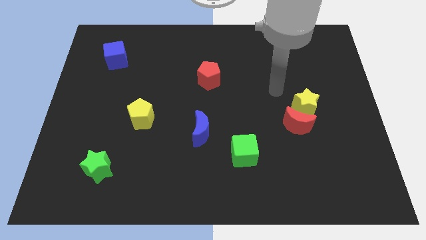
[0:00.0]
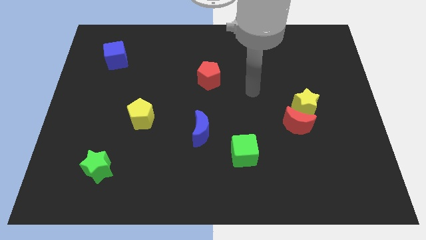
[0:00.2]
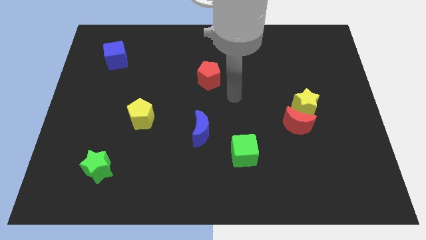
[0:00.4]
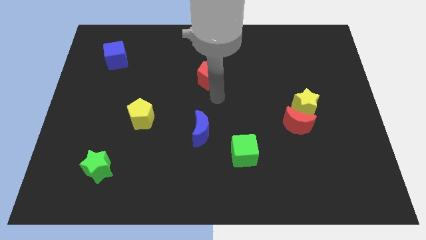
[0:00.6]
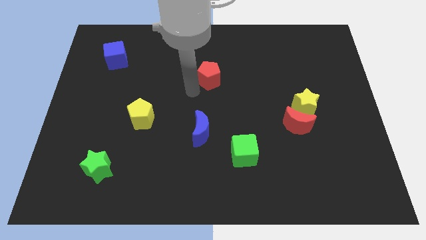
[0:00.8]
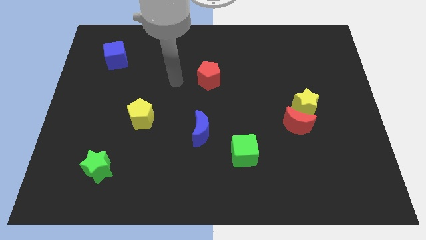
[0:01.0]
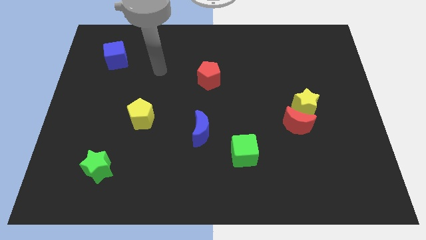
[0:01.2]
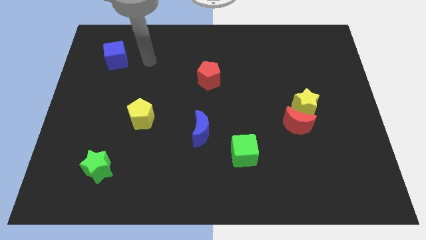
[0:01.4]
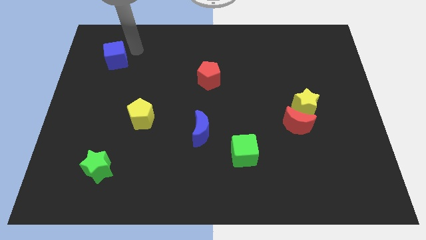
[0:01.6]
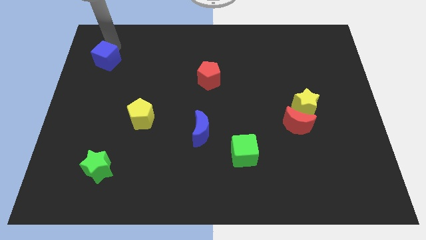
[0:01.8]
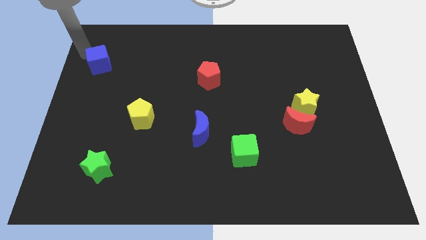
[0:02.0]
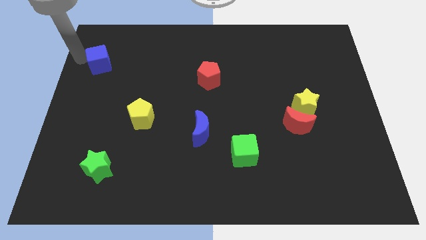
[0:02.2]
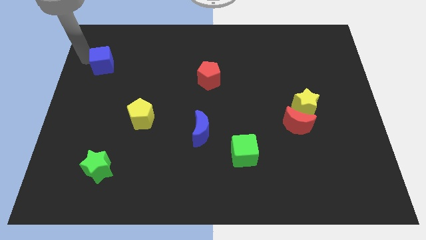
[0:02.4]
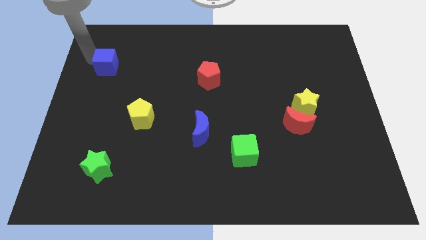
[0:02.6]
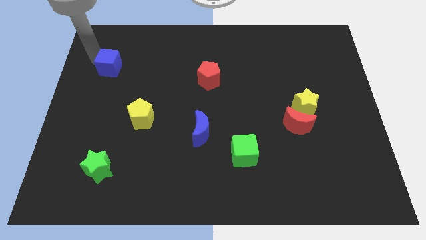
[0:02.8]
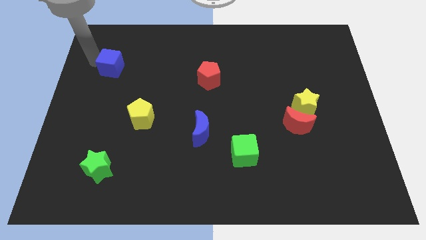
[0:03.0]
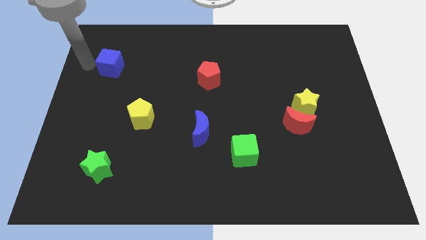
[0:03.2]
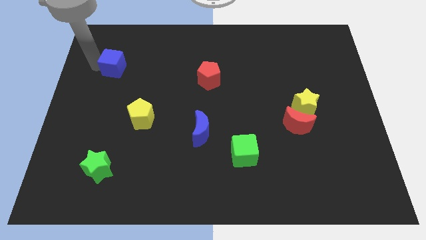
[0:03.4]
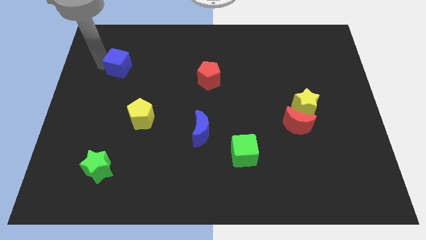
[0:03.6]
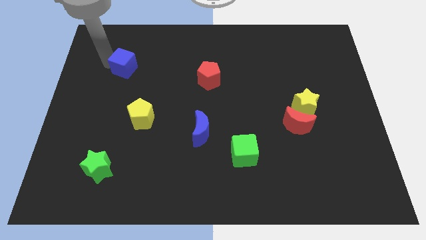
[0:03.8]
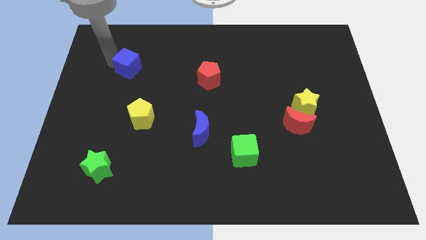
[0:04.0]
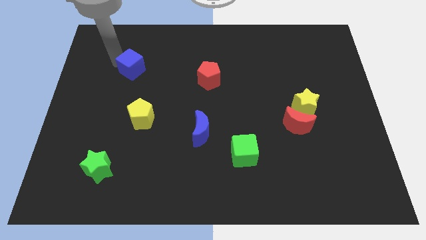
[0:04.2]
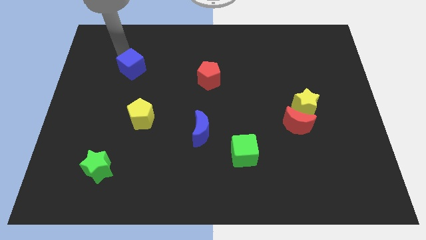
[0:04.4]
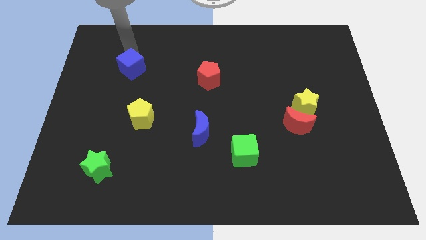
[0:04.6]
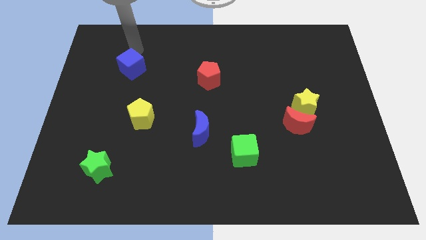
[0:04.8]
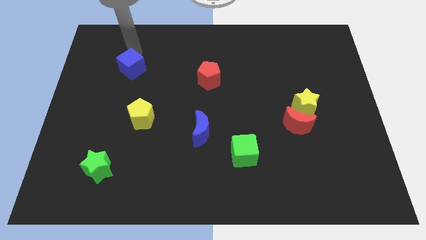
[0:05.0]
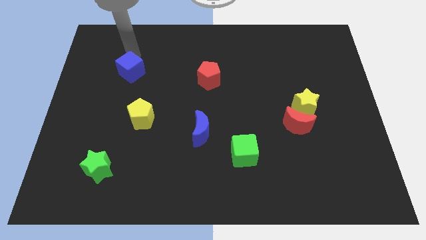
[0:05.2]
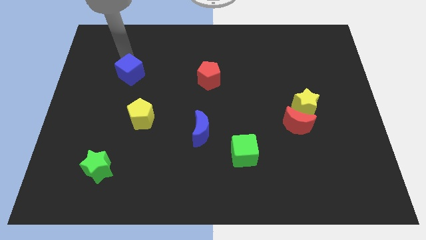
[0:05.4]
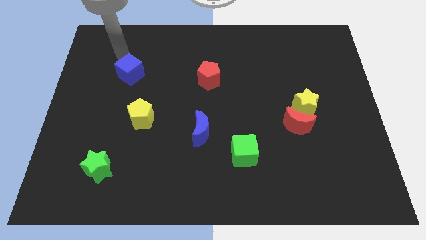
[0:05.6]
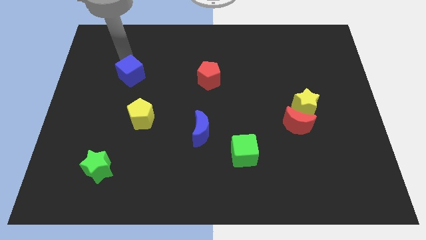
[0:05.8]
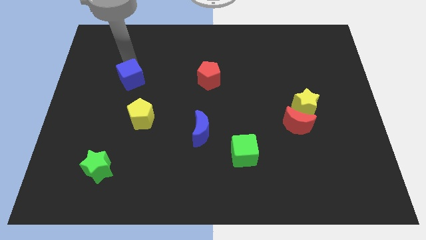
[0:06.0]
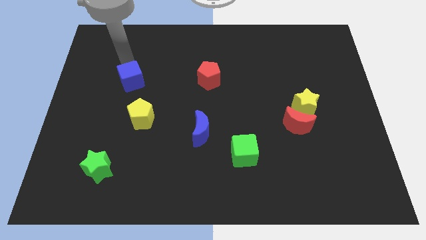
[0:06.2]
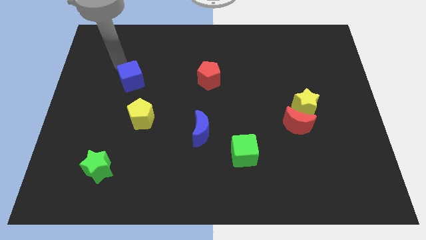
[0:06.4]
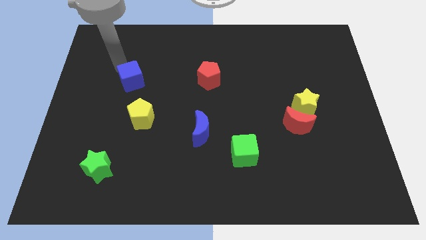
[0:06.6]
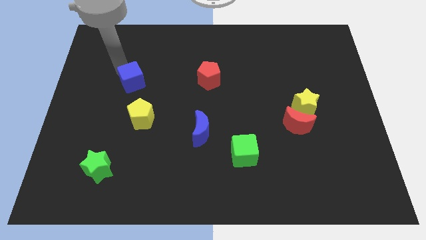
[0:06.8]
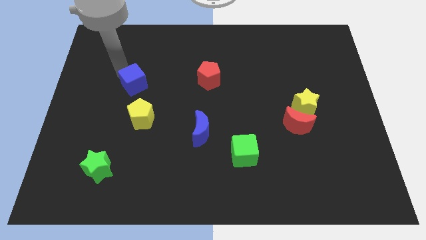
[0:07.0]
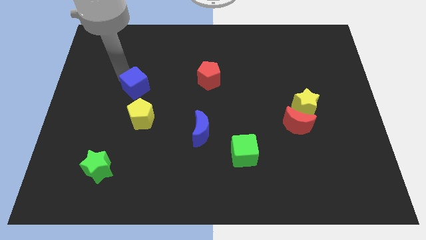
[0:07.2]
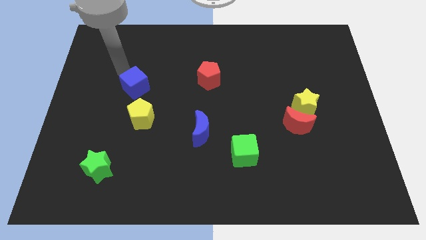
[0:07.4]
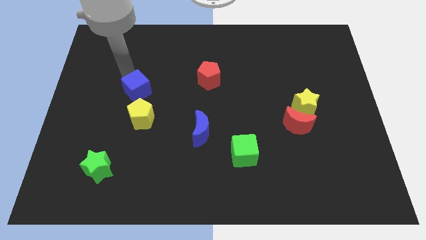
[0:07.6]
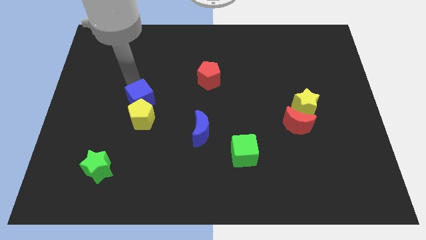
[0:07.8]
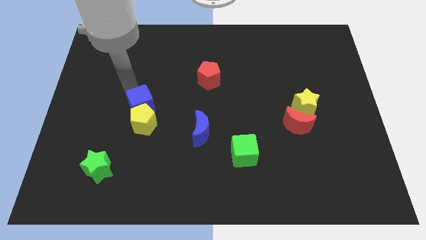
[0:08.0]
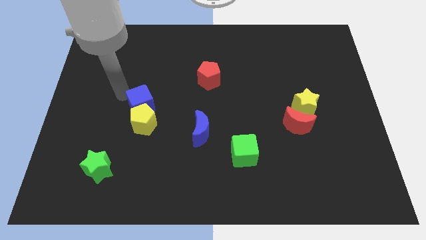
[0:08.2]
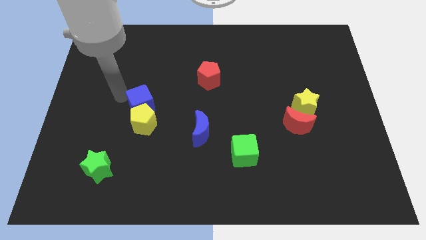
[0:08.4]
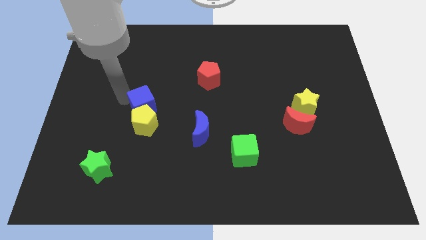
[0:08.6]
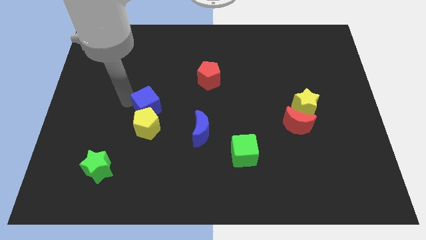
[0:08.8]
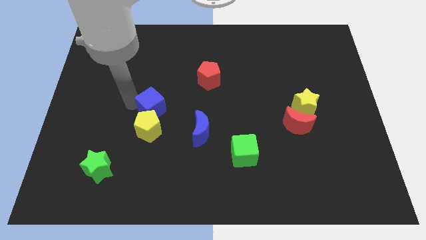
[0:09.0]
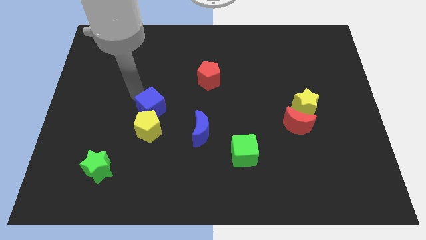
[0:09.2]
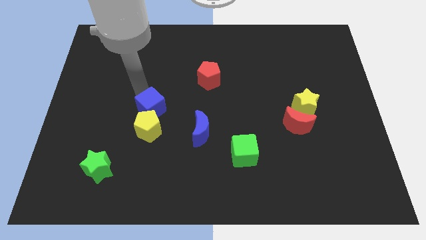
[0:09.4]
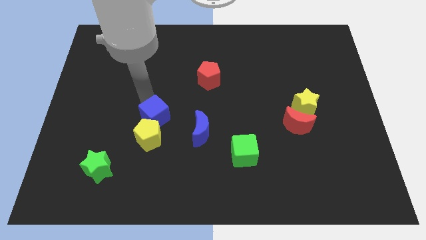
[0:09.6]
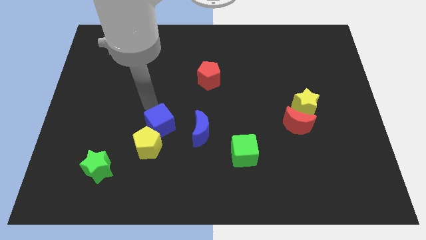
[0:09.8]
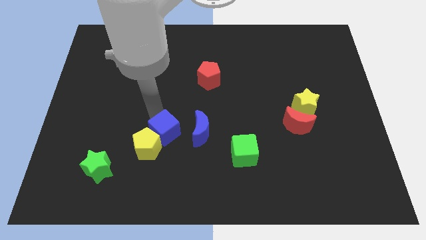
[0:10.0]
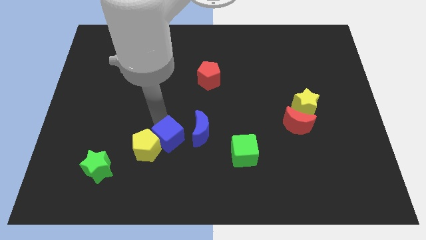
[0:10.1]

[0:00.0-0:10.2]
push the blue cube to the bottom left side of the blue moon

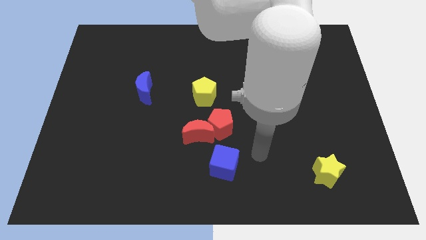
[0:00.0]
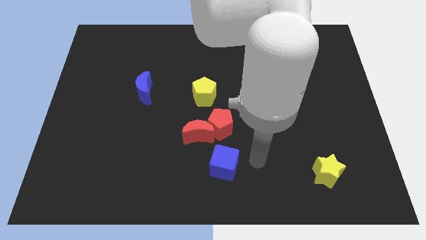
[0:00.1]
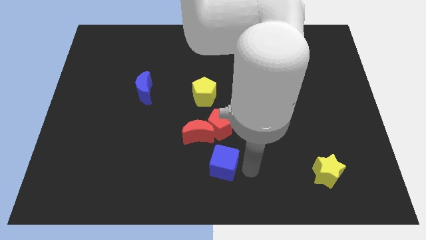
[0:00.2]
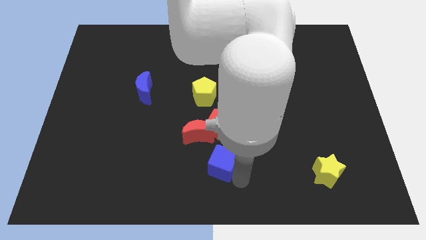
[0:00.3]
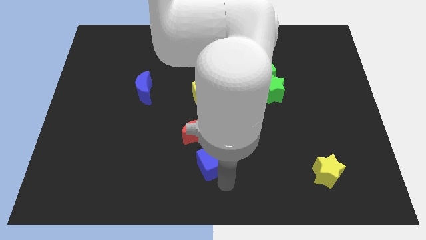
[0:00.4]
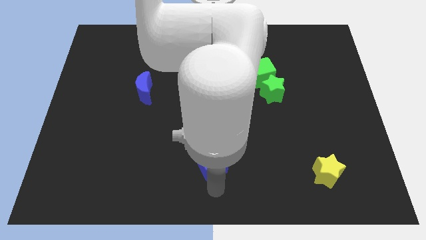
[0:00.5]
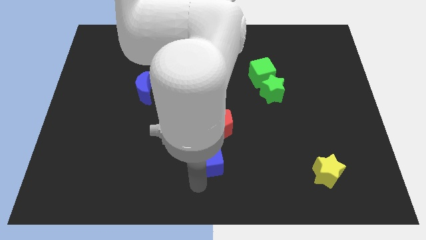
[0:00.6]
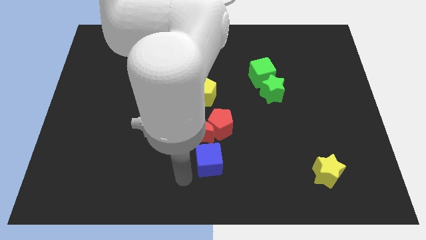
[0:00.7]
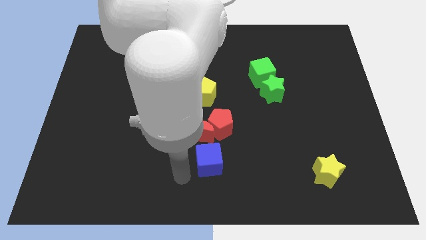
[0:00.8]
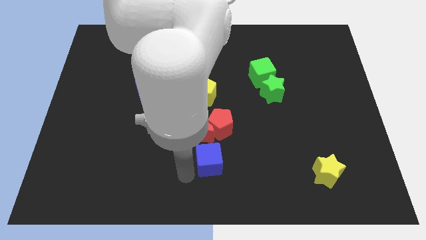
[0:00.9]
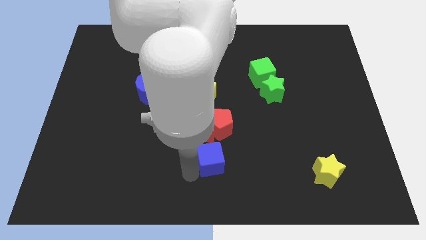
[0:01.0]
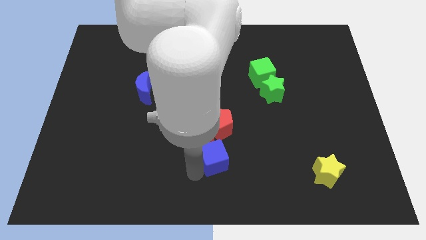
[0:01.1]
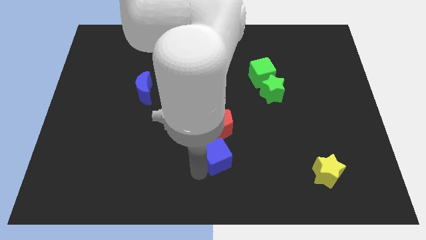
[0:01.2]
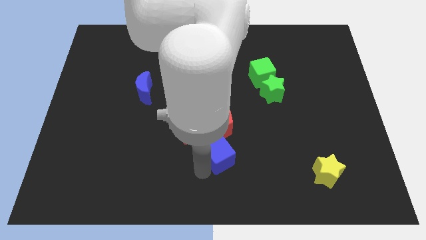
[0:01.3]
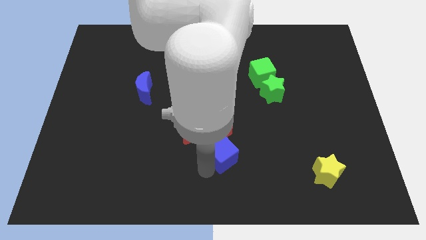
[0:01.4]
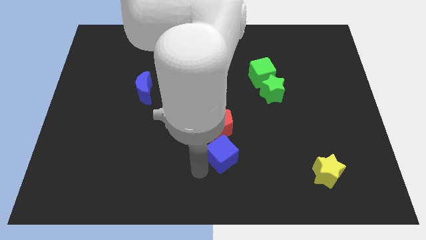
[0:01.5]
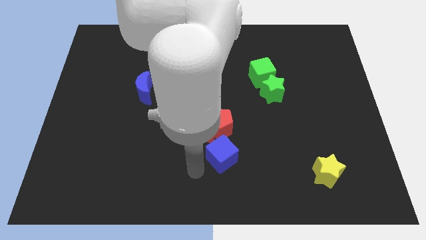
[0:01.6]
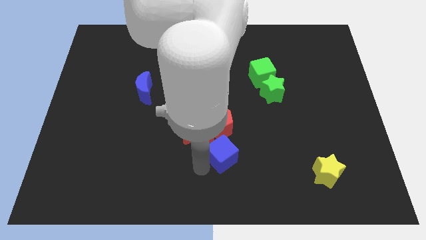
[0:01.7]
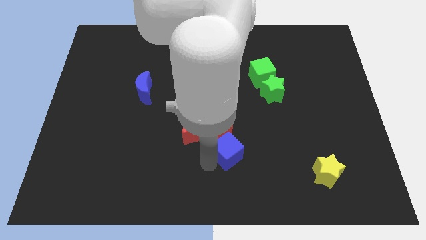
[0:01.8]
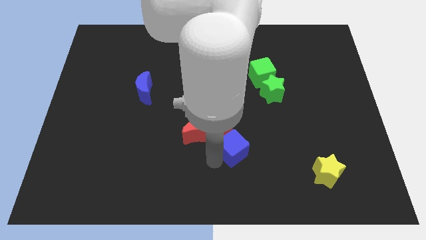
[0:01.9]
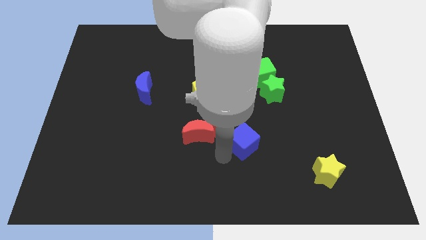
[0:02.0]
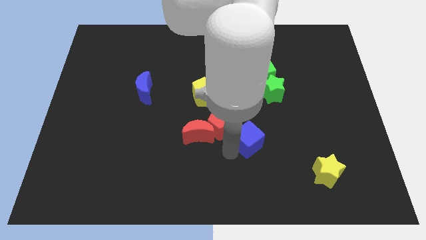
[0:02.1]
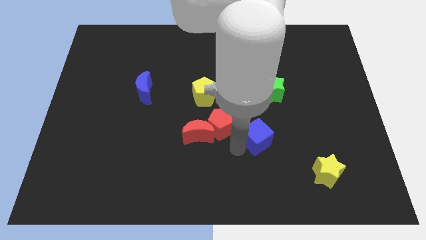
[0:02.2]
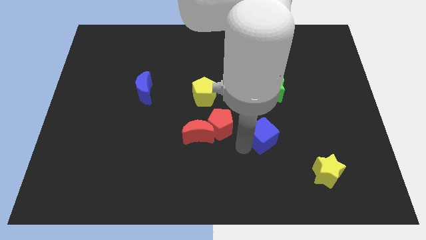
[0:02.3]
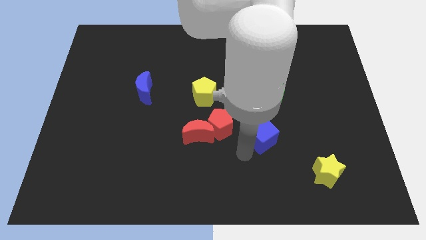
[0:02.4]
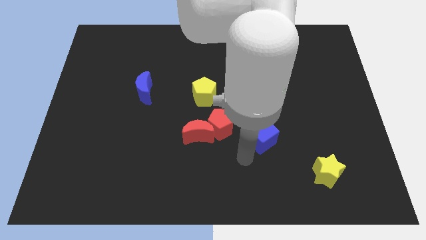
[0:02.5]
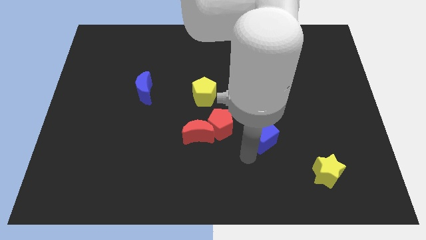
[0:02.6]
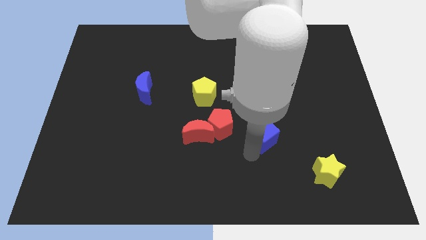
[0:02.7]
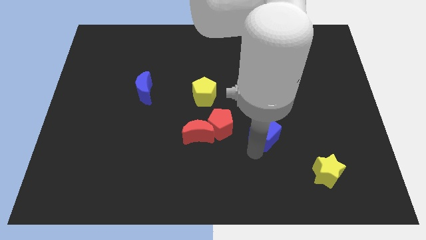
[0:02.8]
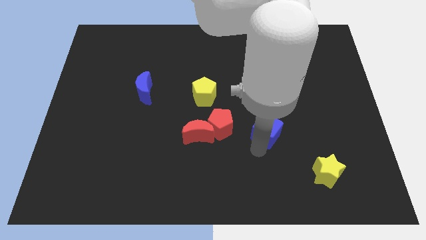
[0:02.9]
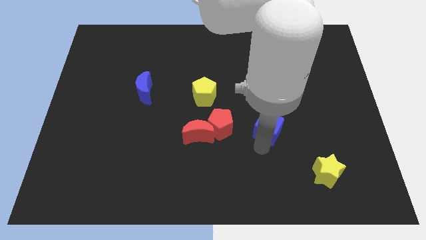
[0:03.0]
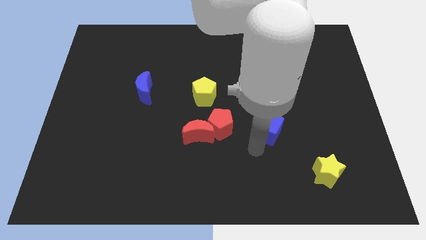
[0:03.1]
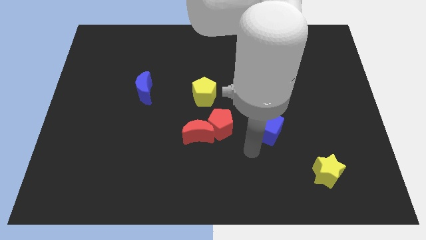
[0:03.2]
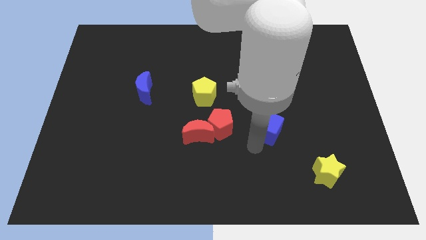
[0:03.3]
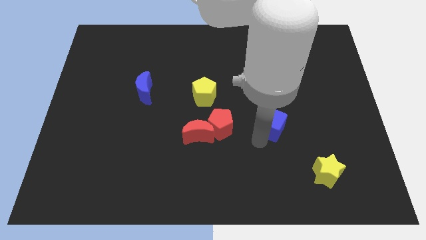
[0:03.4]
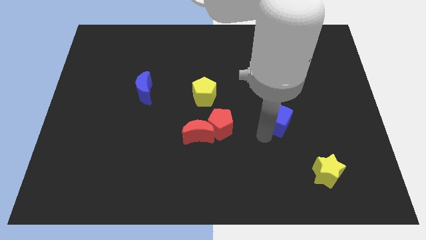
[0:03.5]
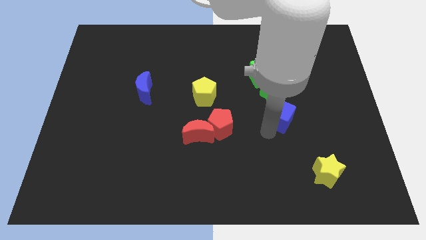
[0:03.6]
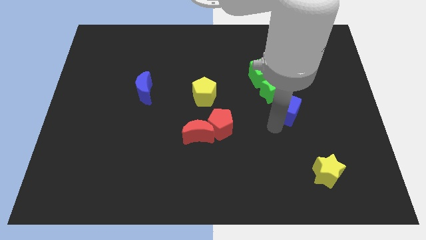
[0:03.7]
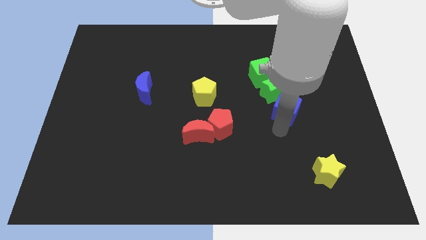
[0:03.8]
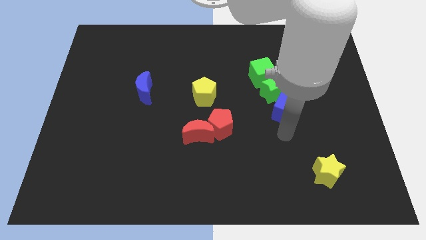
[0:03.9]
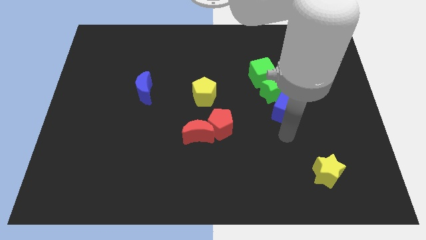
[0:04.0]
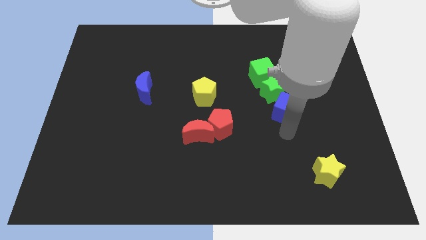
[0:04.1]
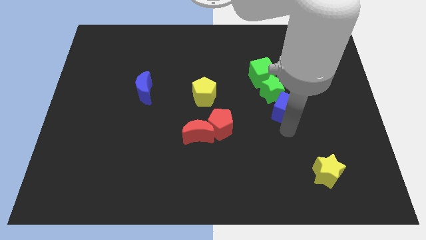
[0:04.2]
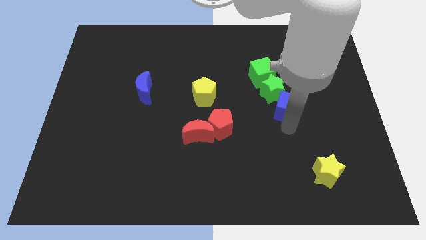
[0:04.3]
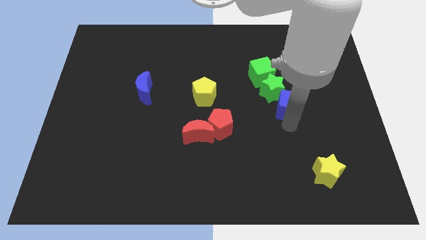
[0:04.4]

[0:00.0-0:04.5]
slide the blue cube to the bottom right of the green cube
